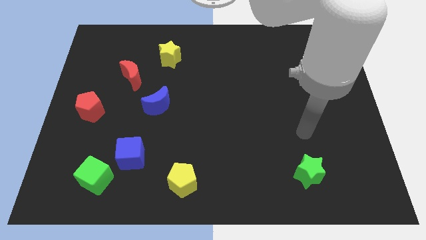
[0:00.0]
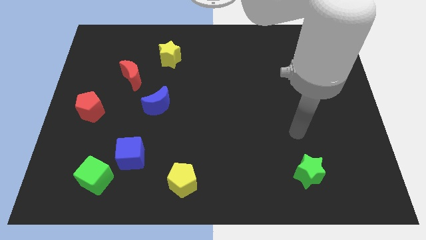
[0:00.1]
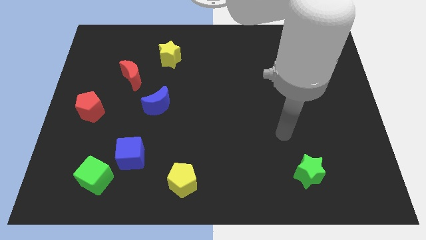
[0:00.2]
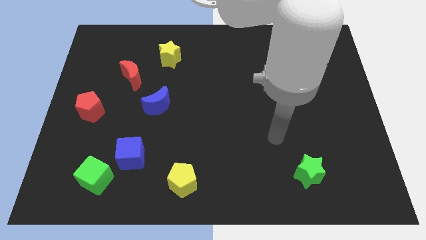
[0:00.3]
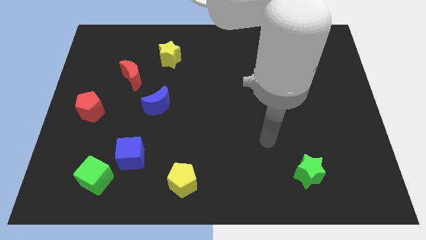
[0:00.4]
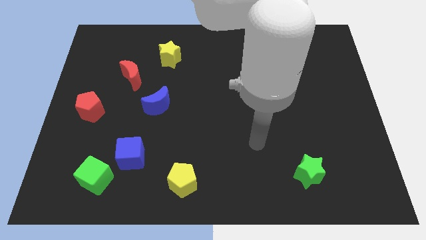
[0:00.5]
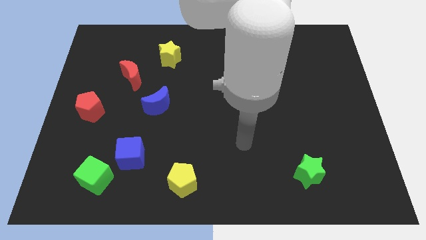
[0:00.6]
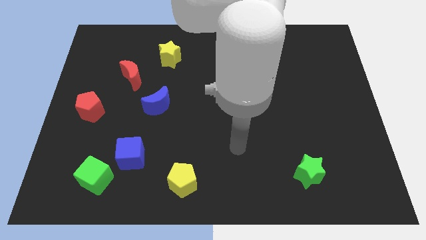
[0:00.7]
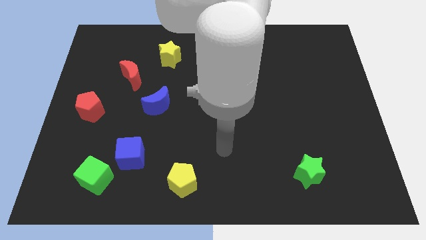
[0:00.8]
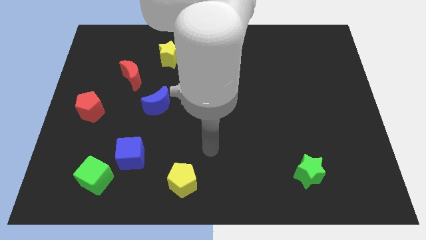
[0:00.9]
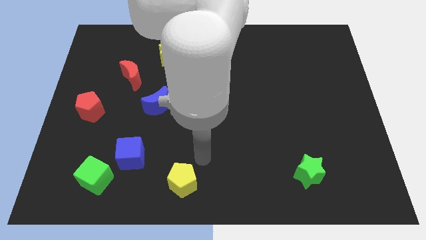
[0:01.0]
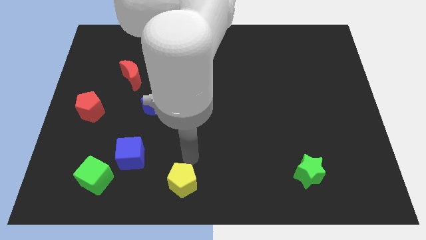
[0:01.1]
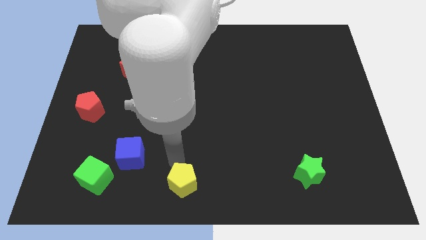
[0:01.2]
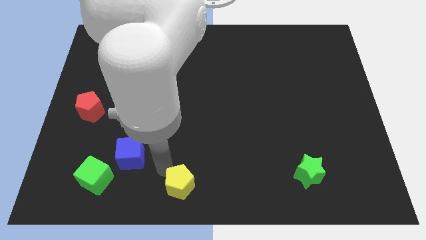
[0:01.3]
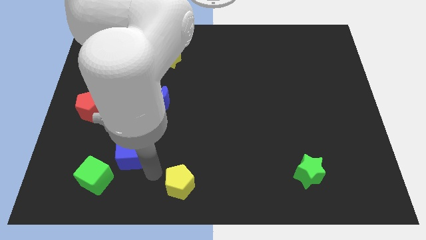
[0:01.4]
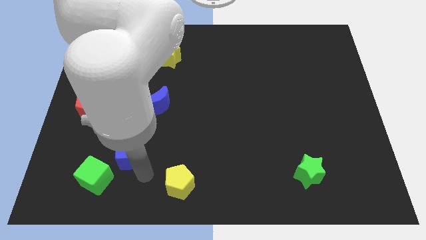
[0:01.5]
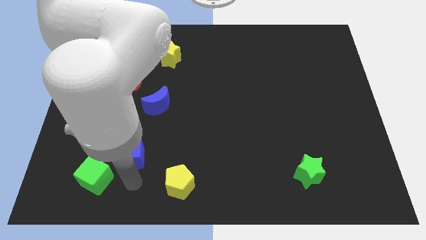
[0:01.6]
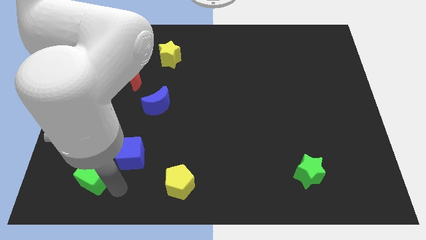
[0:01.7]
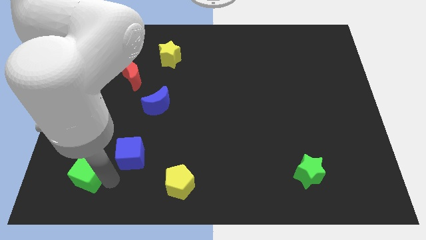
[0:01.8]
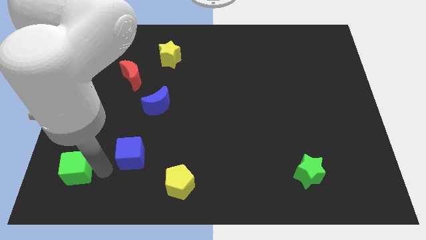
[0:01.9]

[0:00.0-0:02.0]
pull the blue cube apart from the green cube

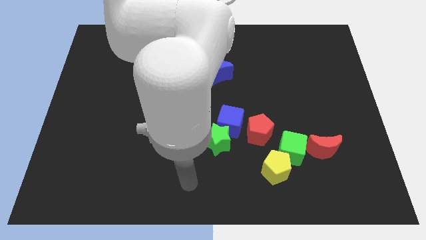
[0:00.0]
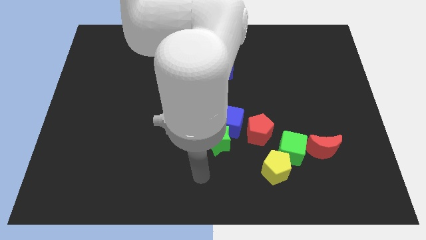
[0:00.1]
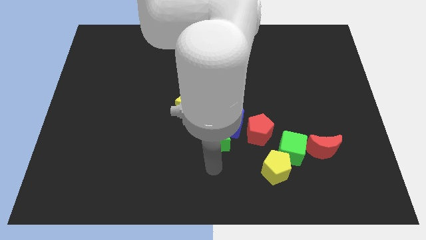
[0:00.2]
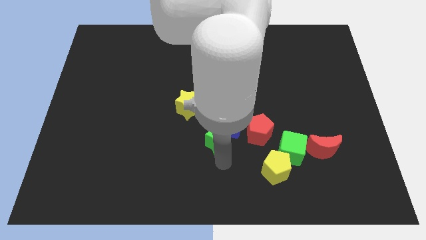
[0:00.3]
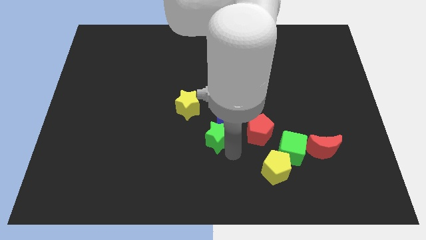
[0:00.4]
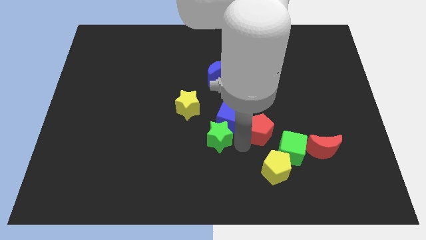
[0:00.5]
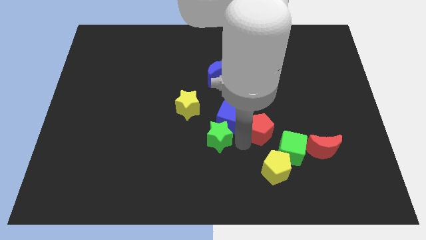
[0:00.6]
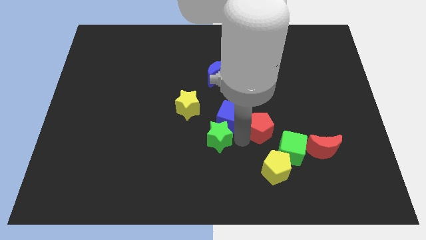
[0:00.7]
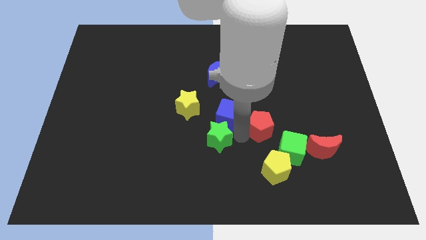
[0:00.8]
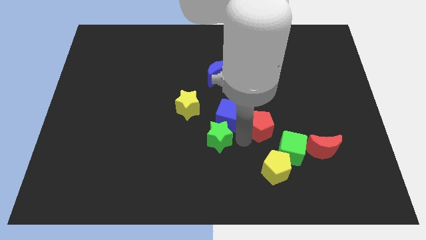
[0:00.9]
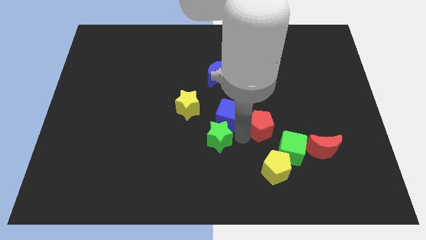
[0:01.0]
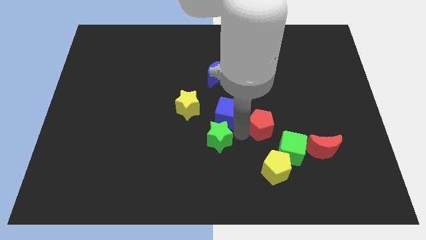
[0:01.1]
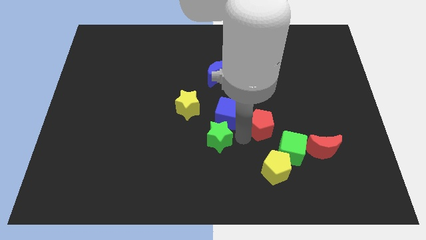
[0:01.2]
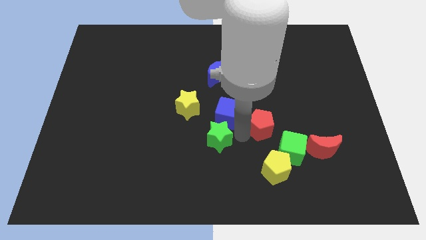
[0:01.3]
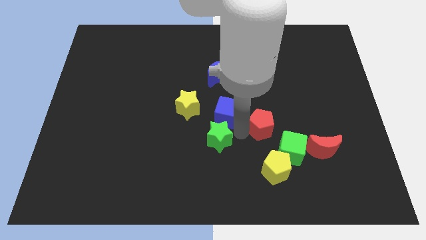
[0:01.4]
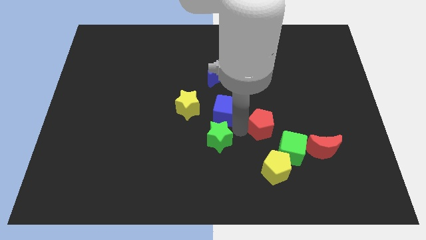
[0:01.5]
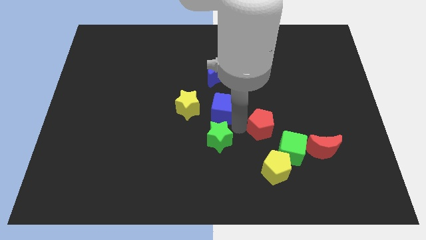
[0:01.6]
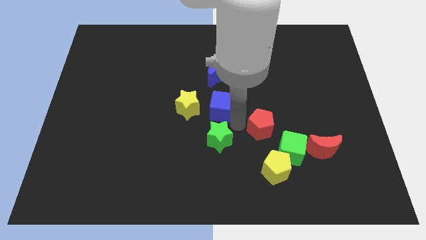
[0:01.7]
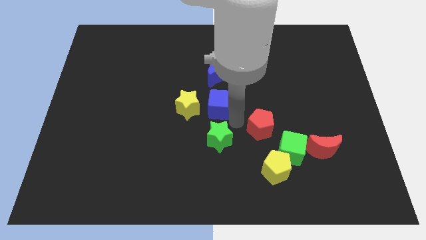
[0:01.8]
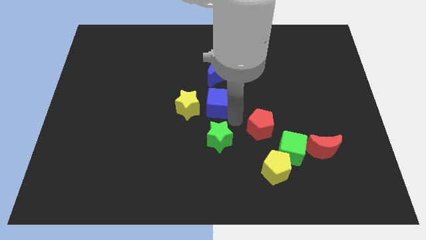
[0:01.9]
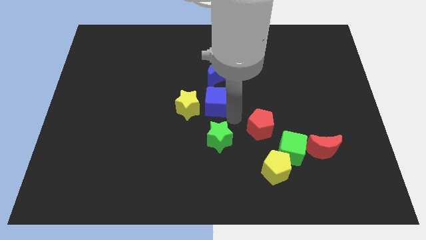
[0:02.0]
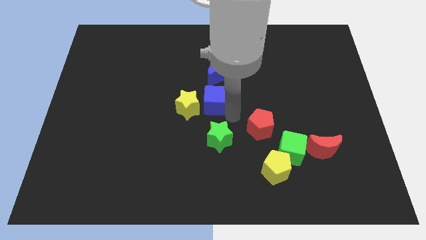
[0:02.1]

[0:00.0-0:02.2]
pull the blue cube apart from the green star and red pentagon

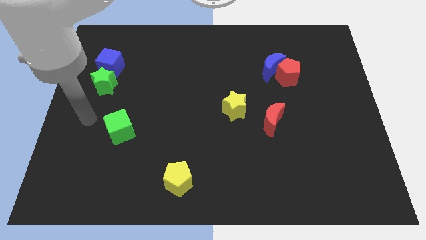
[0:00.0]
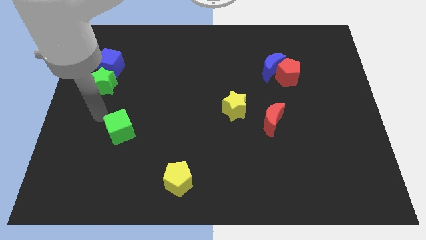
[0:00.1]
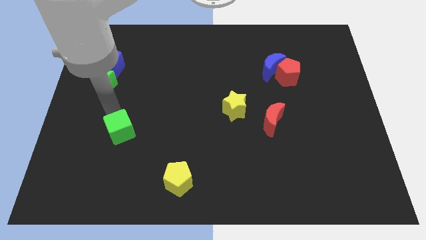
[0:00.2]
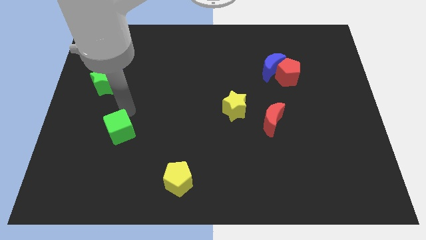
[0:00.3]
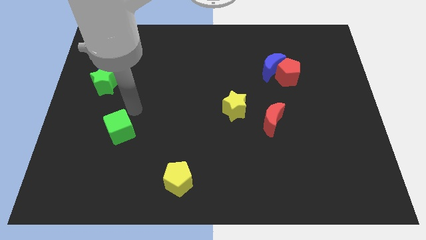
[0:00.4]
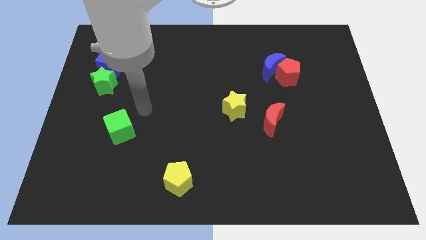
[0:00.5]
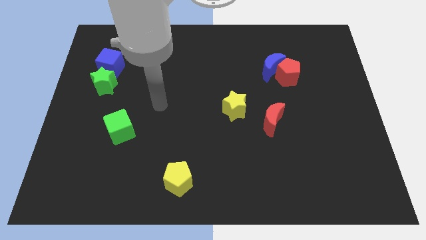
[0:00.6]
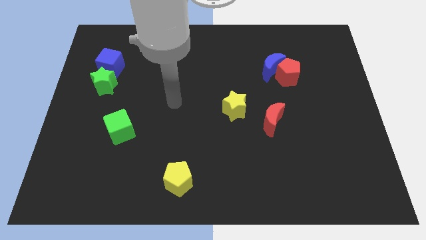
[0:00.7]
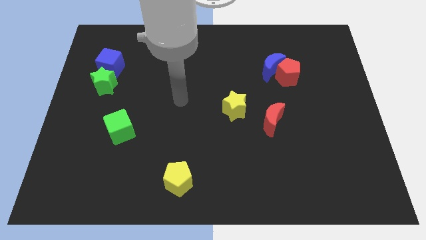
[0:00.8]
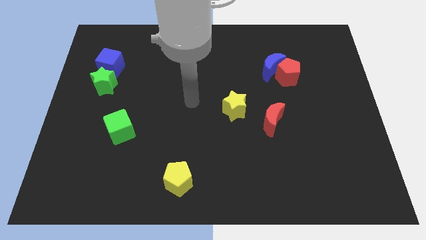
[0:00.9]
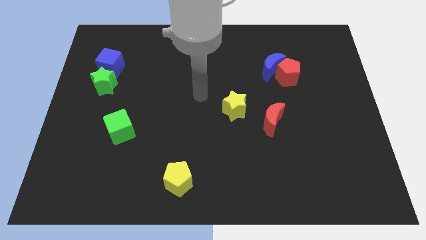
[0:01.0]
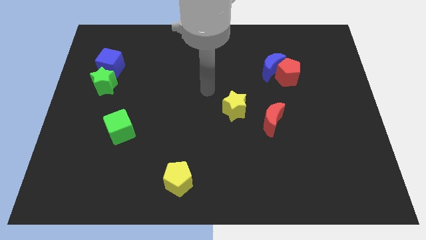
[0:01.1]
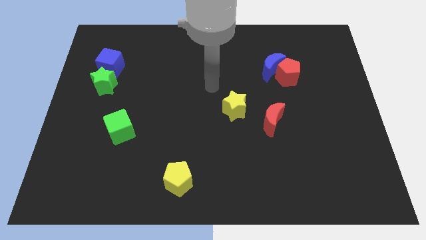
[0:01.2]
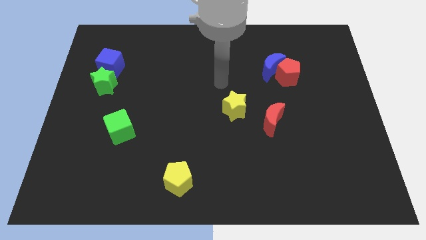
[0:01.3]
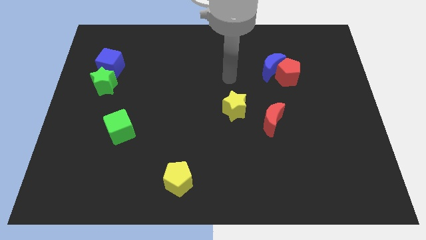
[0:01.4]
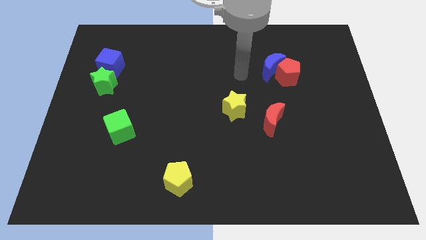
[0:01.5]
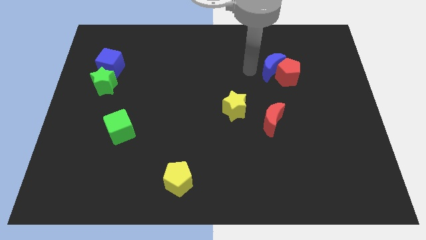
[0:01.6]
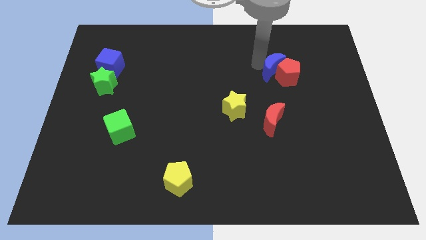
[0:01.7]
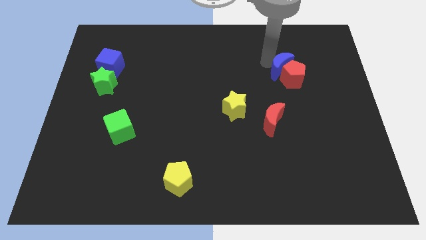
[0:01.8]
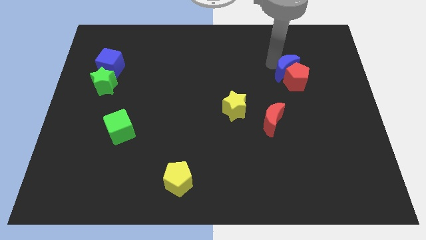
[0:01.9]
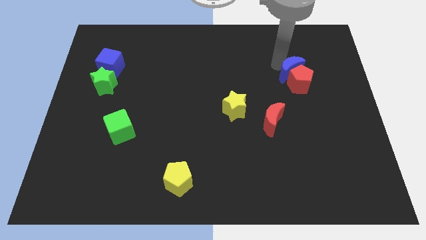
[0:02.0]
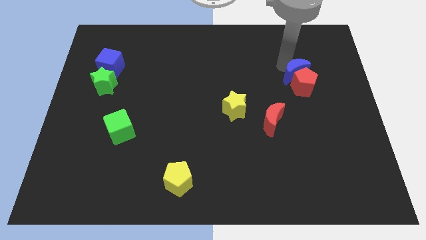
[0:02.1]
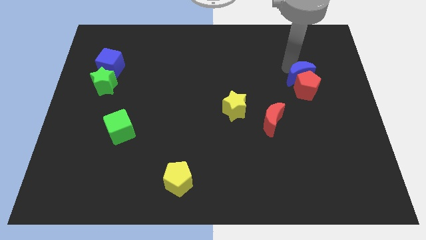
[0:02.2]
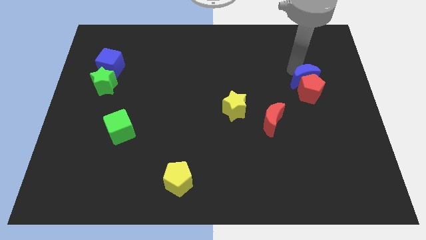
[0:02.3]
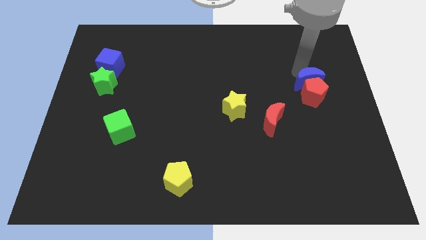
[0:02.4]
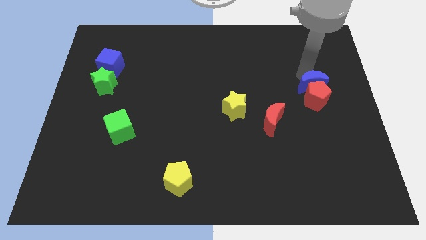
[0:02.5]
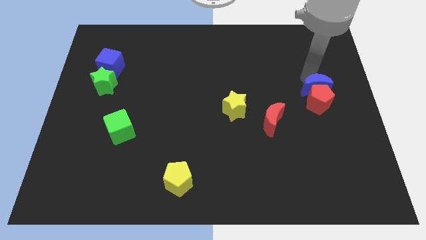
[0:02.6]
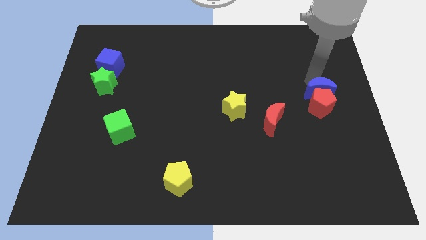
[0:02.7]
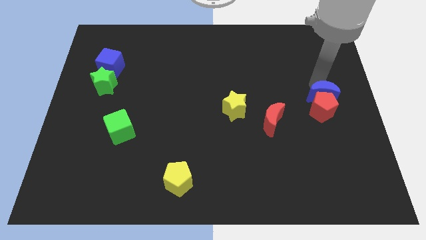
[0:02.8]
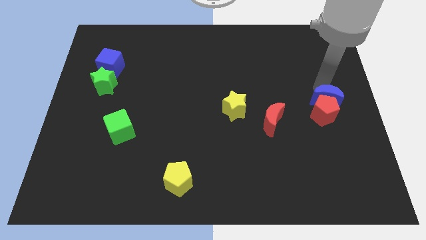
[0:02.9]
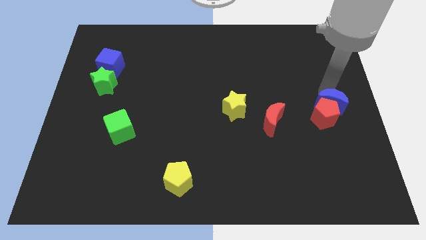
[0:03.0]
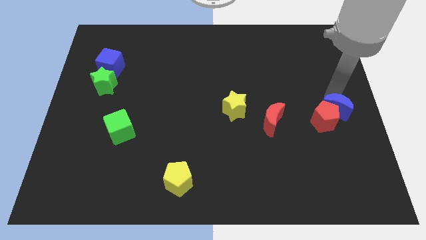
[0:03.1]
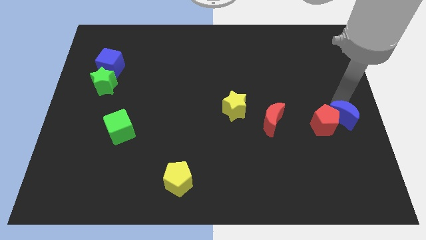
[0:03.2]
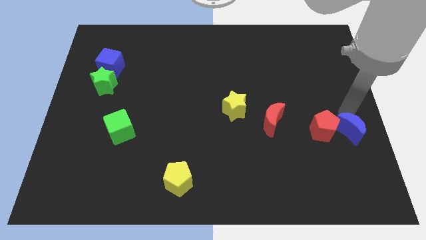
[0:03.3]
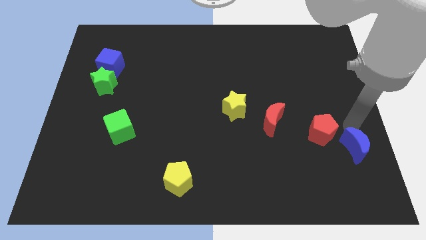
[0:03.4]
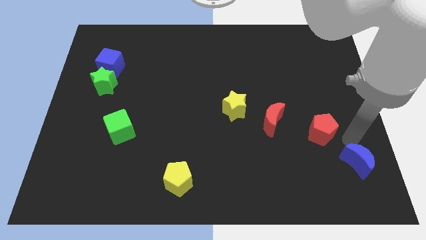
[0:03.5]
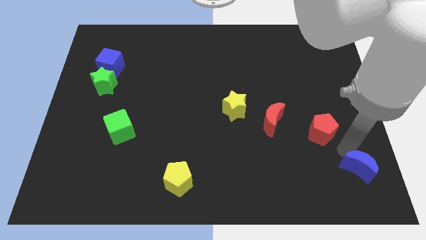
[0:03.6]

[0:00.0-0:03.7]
move the red pentagon away from the blue moon

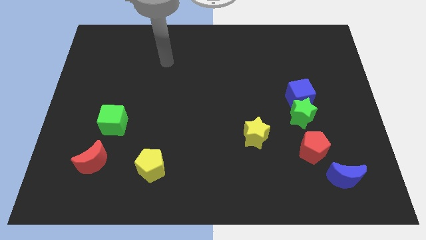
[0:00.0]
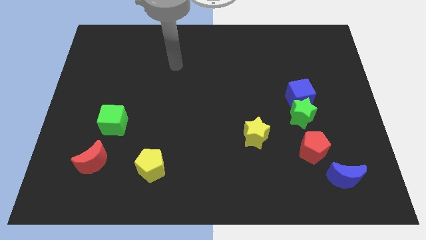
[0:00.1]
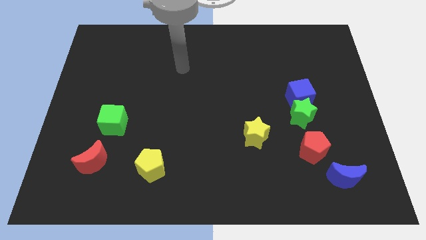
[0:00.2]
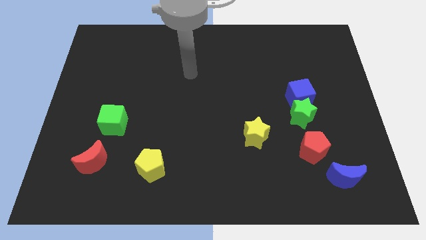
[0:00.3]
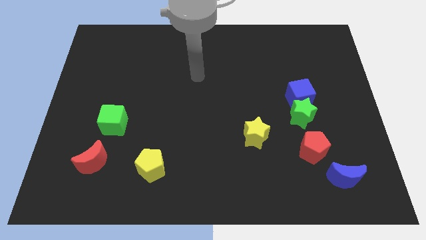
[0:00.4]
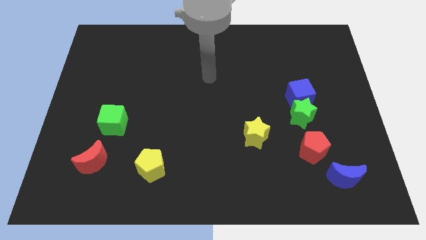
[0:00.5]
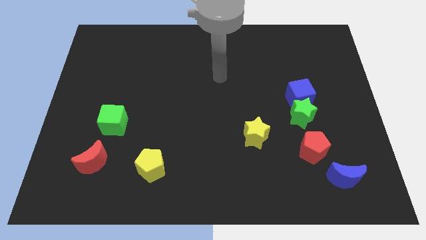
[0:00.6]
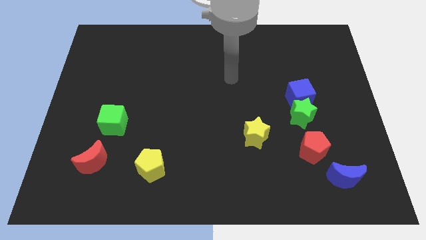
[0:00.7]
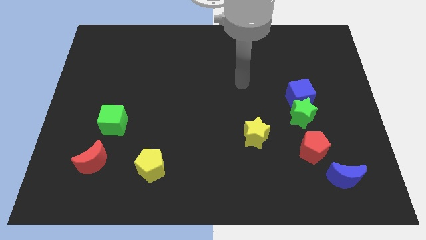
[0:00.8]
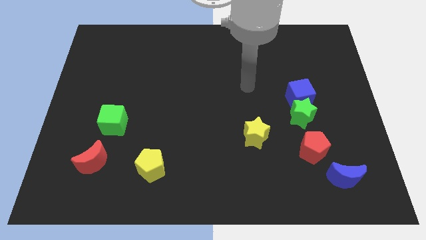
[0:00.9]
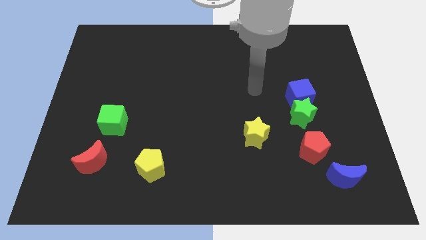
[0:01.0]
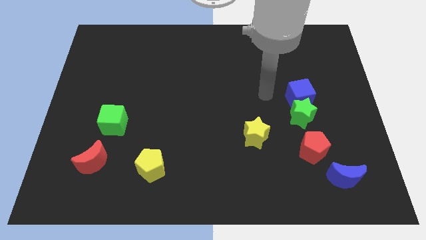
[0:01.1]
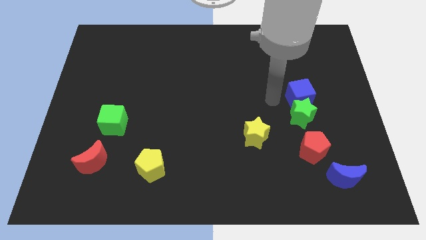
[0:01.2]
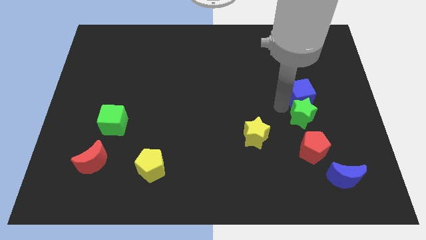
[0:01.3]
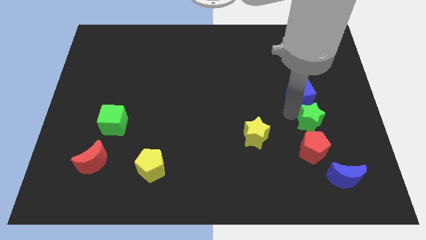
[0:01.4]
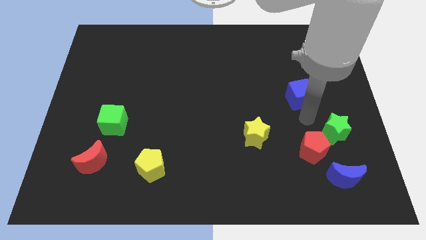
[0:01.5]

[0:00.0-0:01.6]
move the blue cube away from the green star
